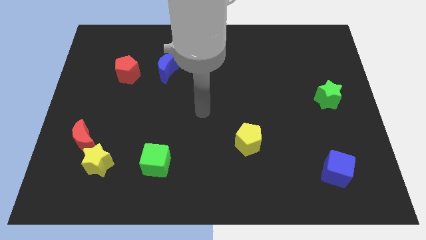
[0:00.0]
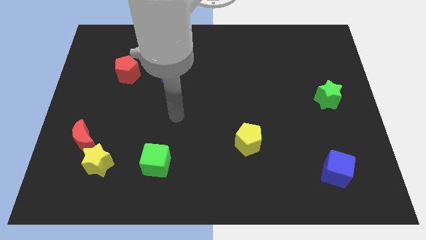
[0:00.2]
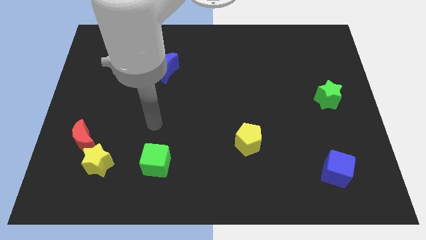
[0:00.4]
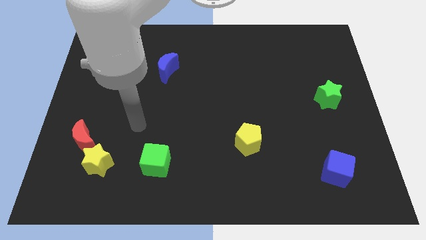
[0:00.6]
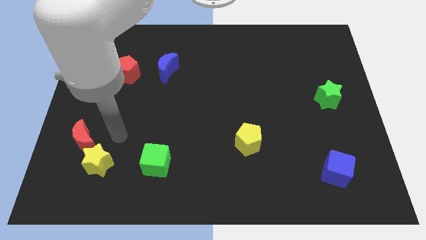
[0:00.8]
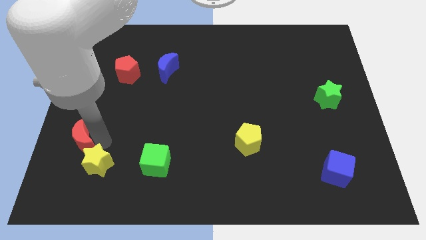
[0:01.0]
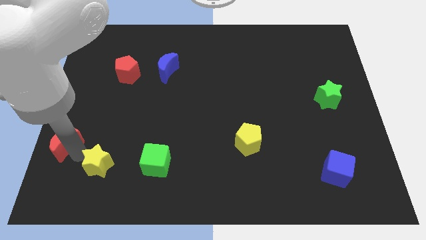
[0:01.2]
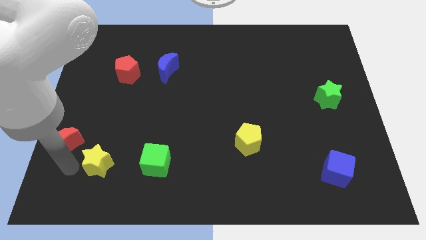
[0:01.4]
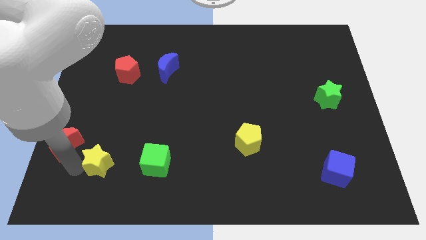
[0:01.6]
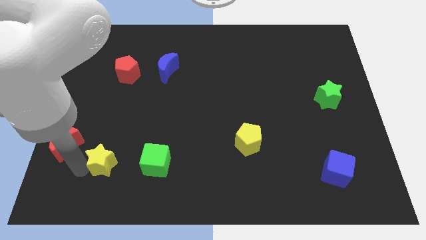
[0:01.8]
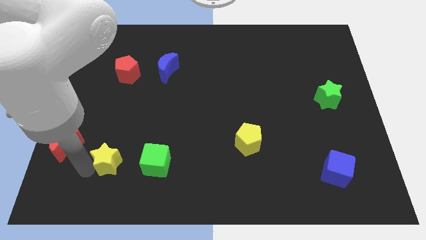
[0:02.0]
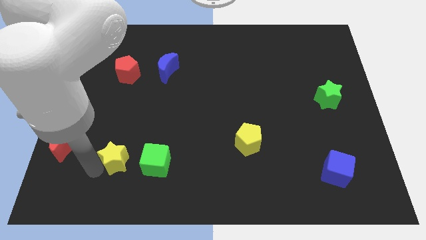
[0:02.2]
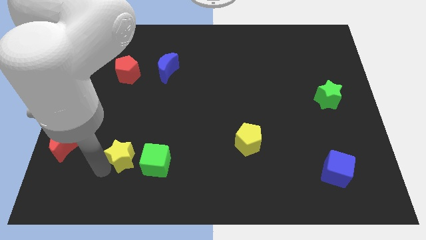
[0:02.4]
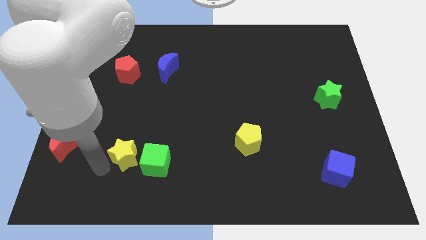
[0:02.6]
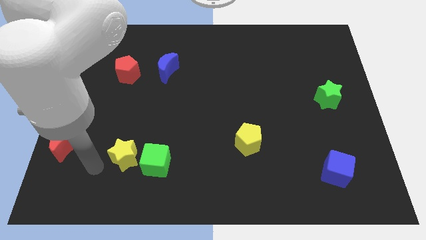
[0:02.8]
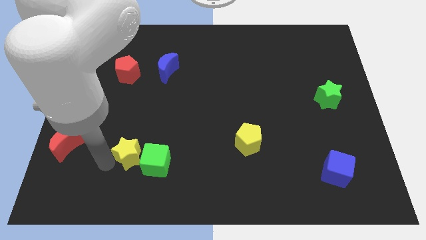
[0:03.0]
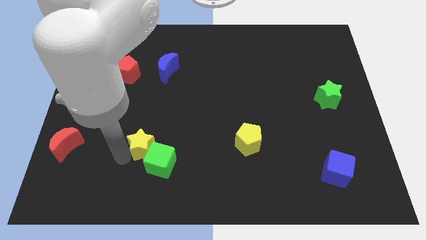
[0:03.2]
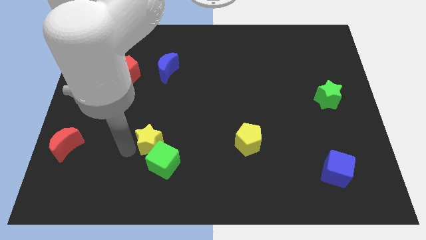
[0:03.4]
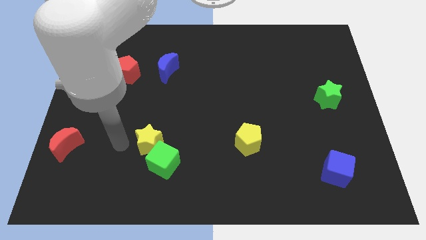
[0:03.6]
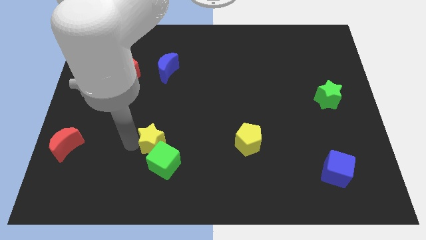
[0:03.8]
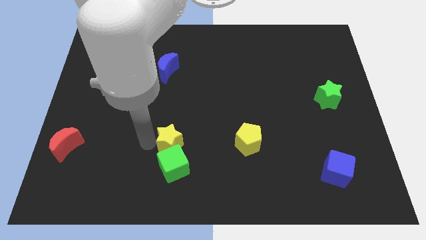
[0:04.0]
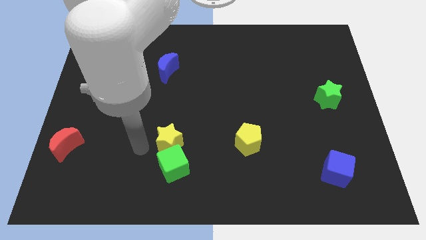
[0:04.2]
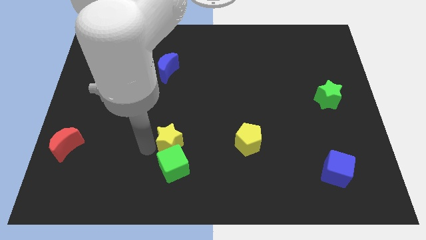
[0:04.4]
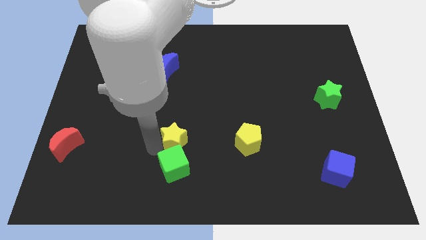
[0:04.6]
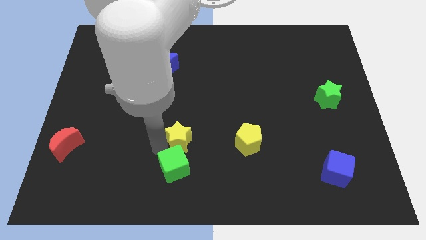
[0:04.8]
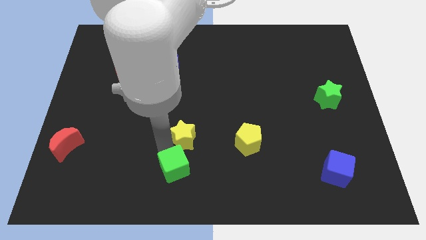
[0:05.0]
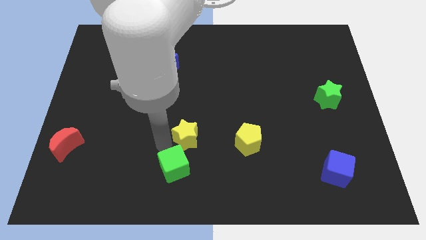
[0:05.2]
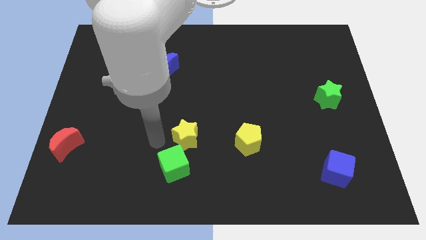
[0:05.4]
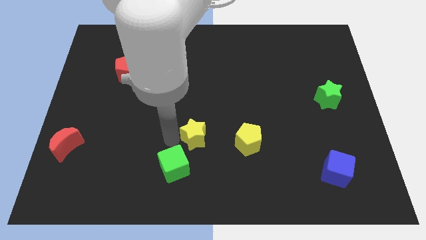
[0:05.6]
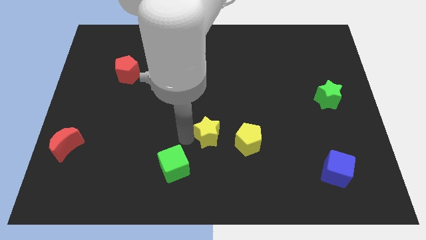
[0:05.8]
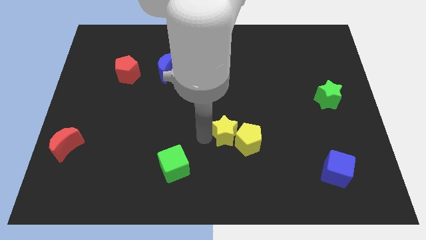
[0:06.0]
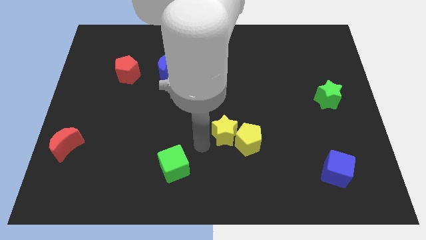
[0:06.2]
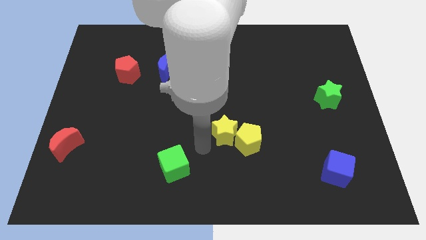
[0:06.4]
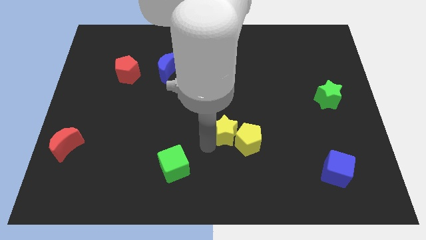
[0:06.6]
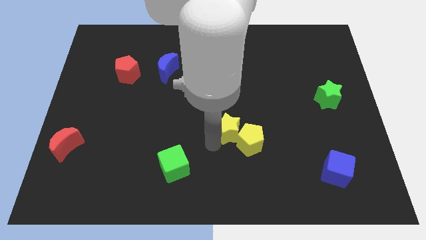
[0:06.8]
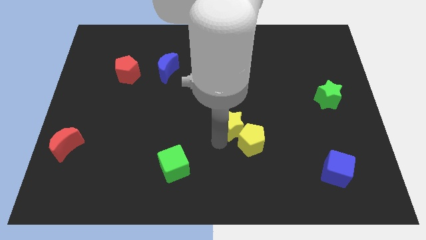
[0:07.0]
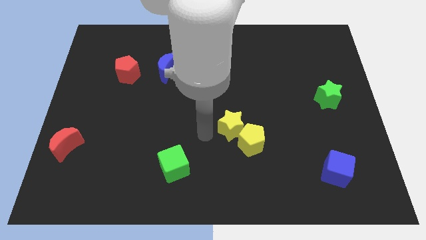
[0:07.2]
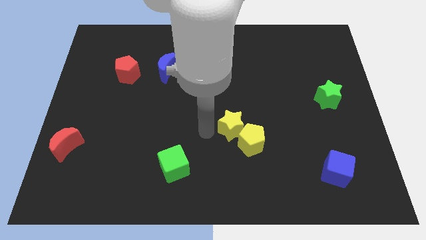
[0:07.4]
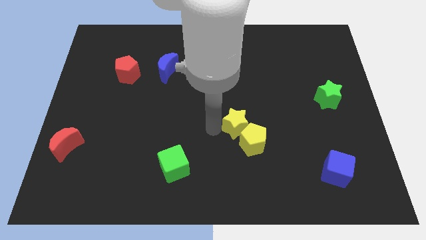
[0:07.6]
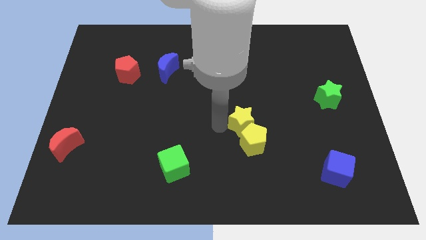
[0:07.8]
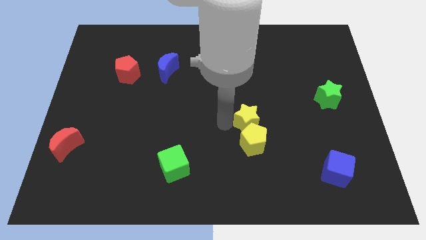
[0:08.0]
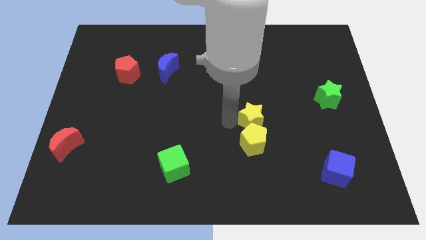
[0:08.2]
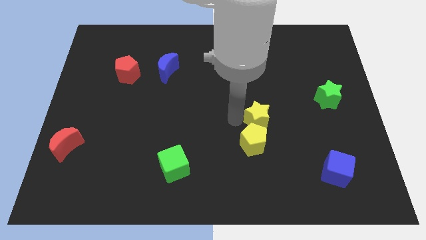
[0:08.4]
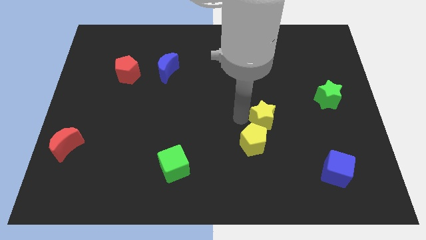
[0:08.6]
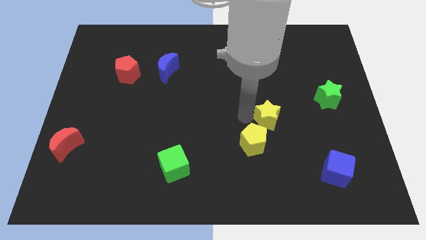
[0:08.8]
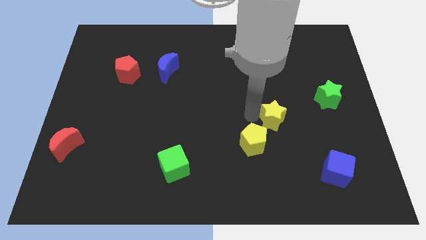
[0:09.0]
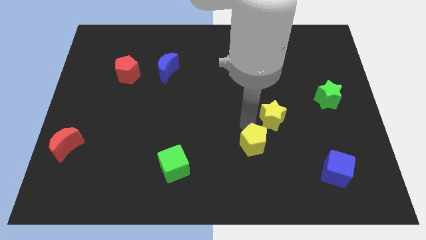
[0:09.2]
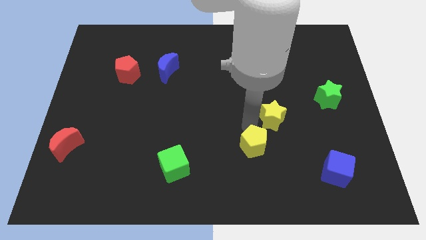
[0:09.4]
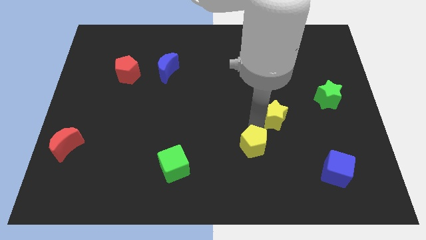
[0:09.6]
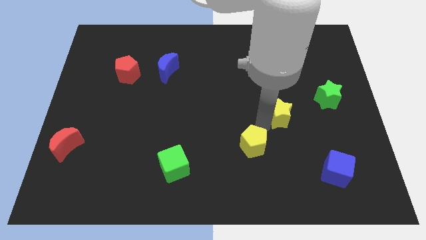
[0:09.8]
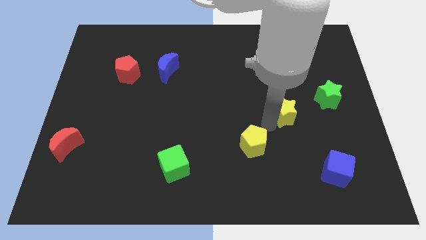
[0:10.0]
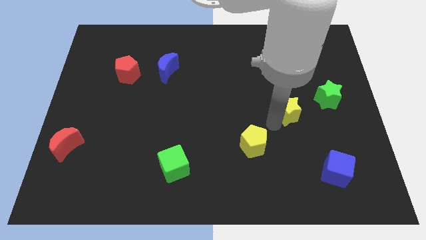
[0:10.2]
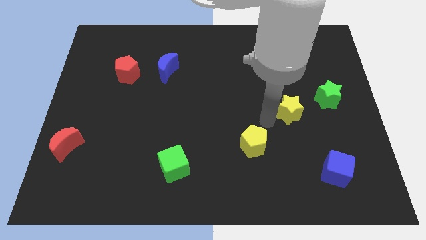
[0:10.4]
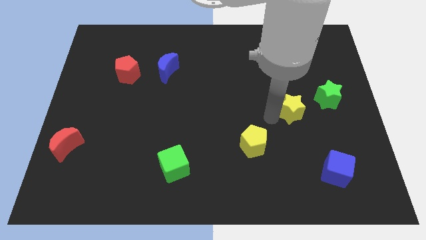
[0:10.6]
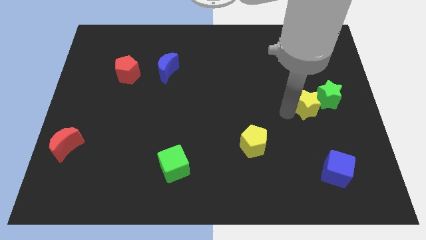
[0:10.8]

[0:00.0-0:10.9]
put the yellow star to the green star

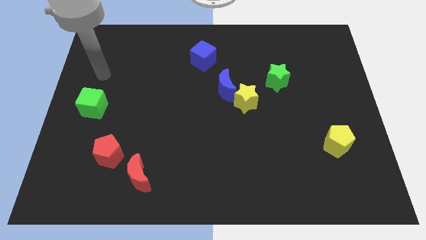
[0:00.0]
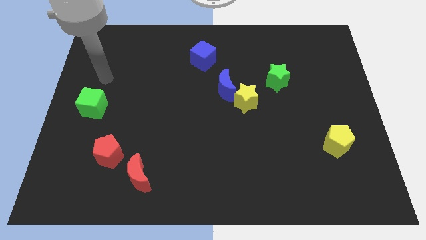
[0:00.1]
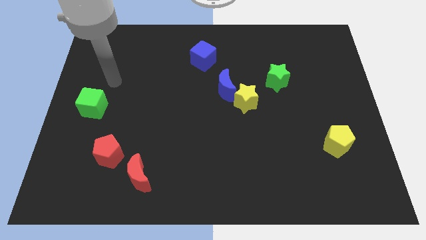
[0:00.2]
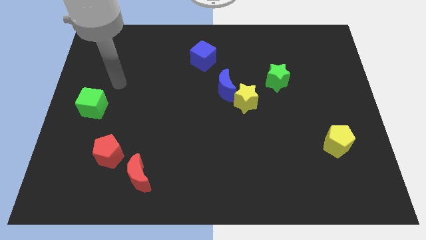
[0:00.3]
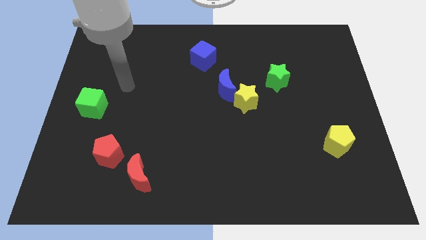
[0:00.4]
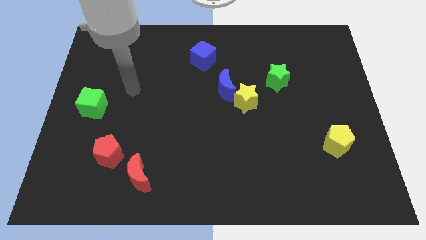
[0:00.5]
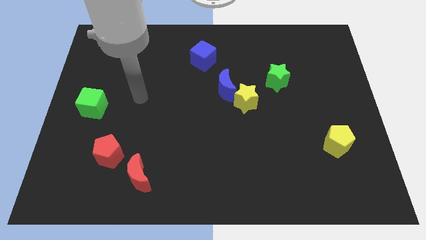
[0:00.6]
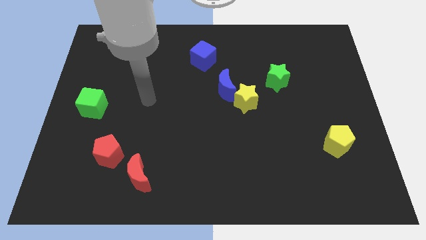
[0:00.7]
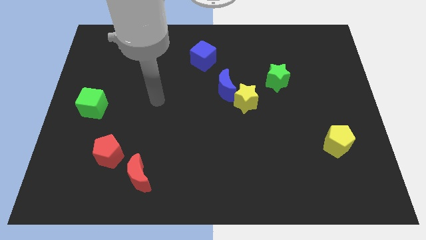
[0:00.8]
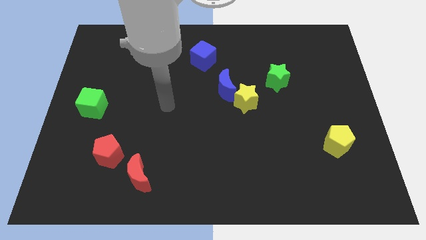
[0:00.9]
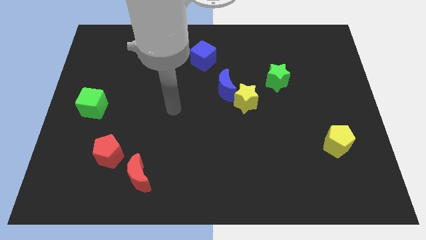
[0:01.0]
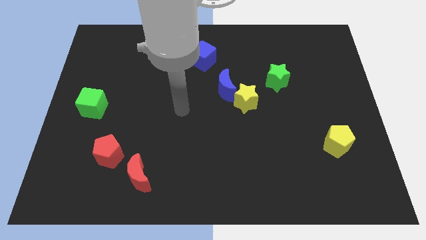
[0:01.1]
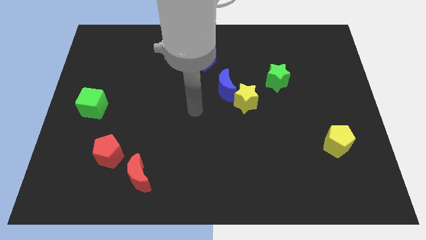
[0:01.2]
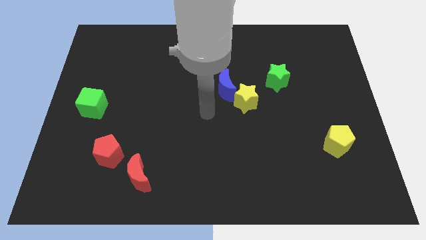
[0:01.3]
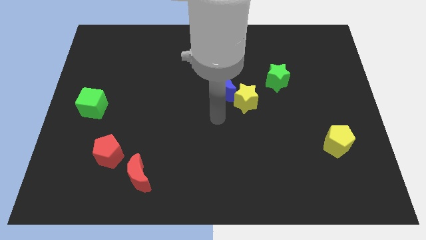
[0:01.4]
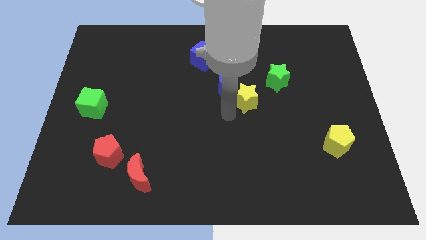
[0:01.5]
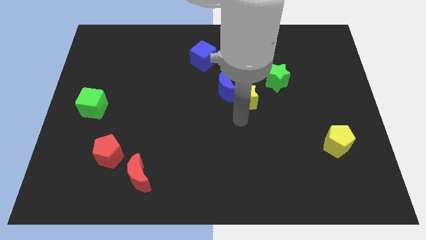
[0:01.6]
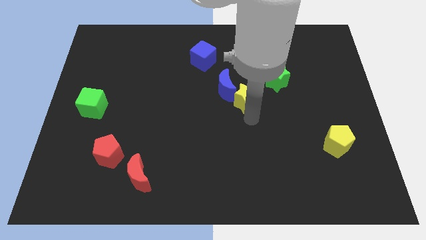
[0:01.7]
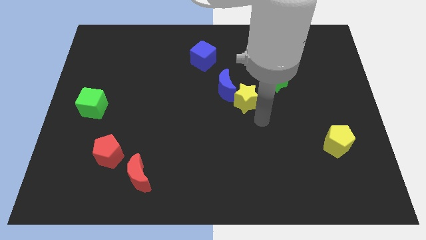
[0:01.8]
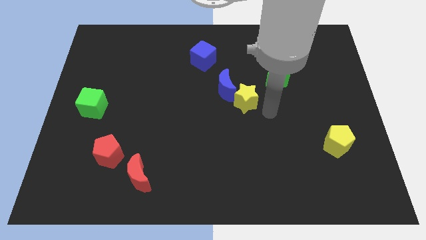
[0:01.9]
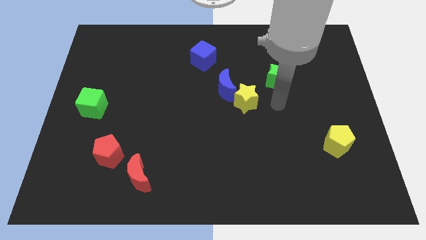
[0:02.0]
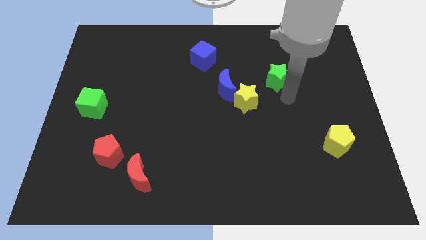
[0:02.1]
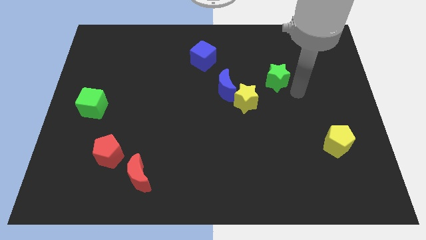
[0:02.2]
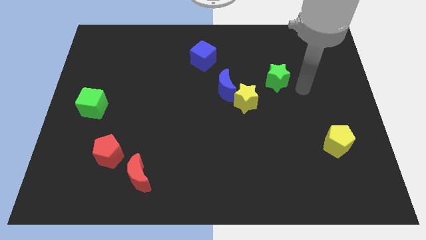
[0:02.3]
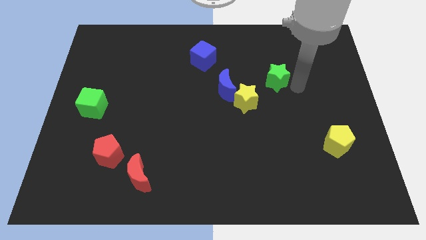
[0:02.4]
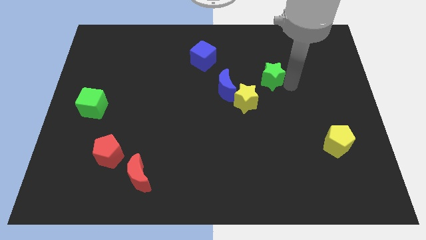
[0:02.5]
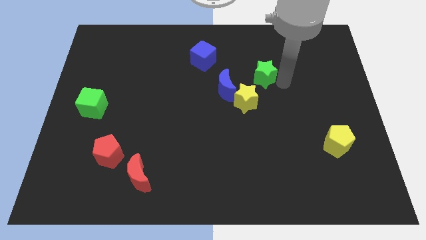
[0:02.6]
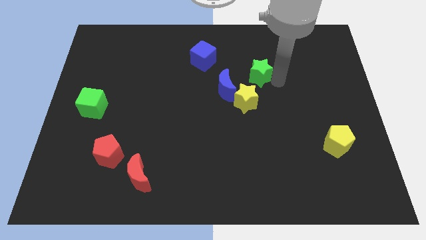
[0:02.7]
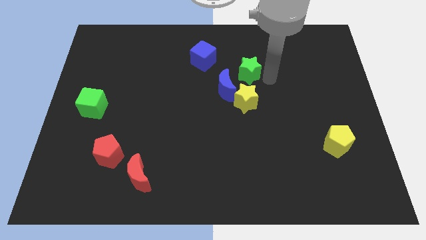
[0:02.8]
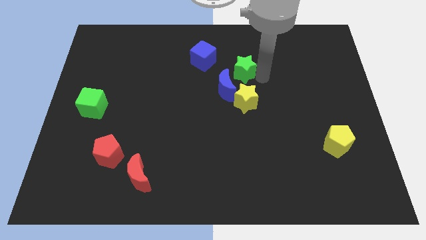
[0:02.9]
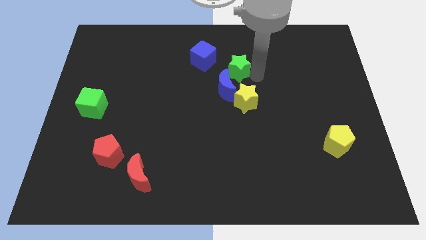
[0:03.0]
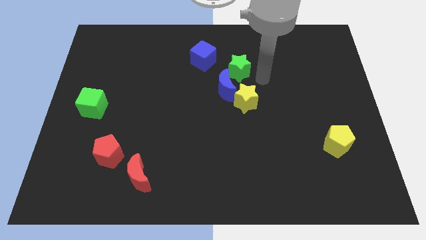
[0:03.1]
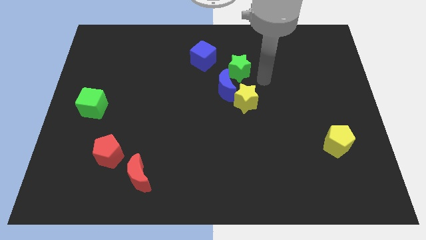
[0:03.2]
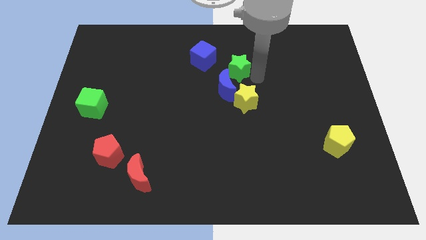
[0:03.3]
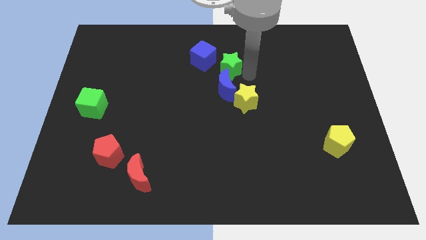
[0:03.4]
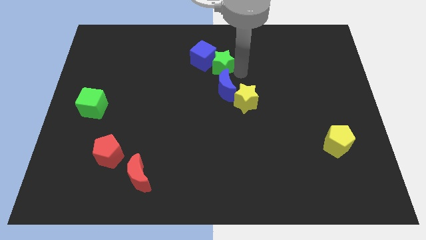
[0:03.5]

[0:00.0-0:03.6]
put the green star to the blue cube
